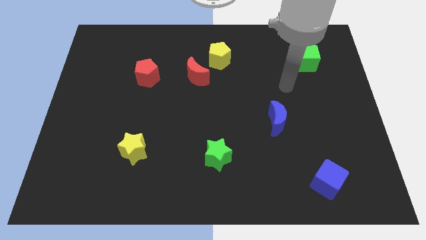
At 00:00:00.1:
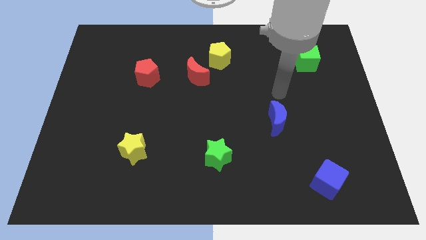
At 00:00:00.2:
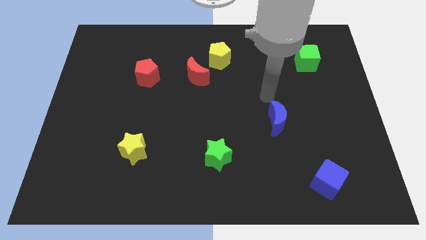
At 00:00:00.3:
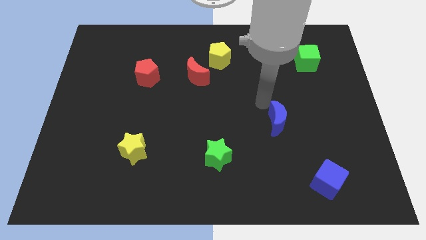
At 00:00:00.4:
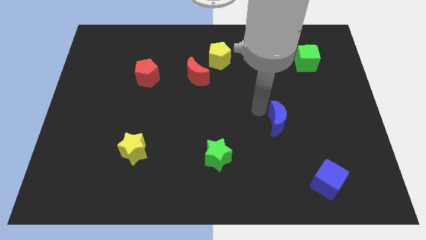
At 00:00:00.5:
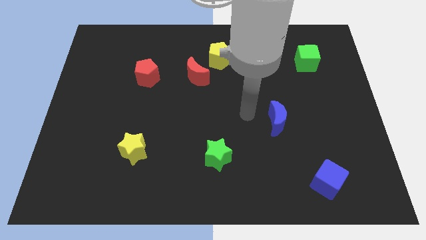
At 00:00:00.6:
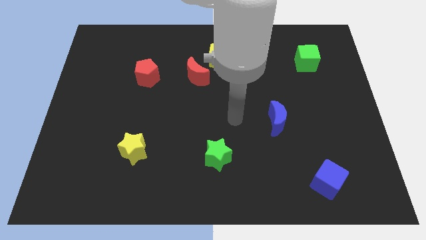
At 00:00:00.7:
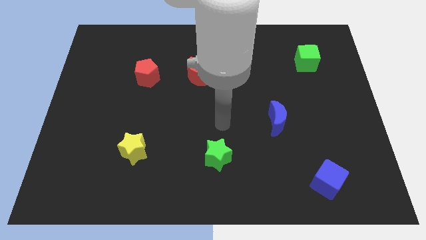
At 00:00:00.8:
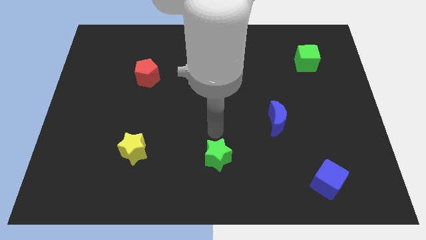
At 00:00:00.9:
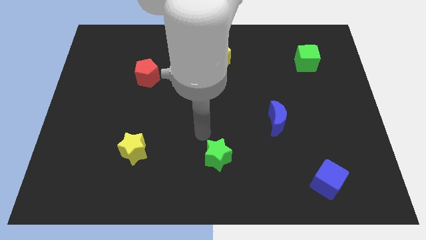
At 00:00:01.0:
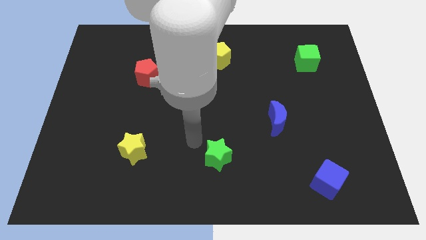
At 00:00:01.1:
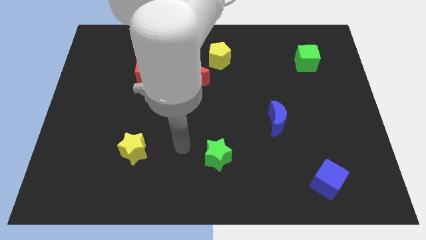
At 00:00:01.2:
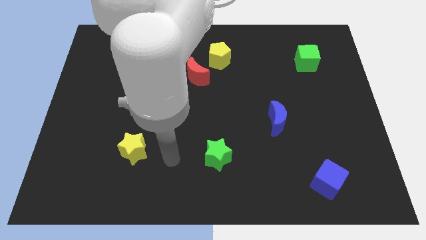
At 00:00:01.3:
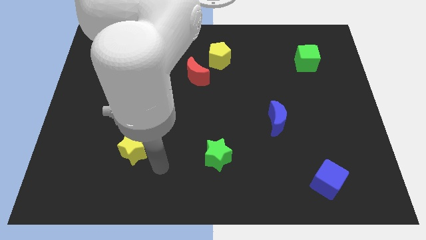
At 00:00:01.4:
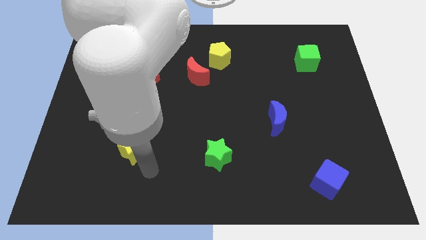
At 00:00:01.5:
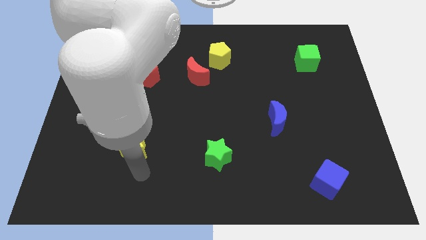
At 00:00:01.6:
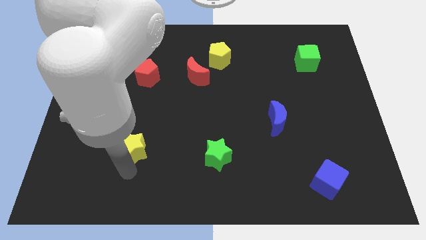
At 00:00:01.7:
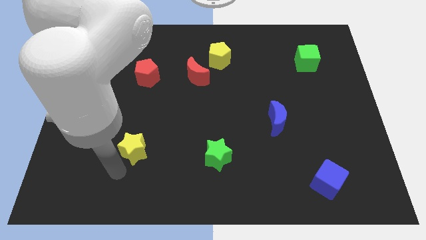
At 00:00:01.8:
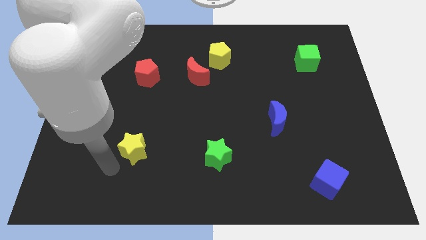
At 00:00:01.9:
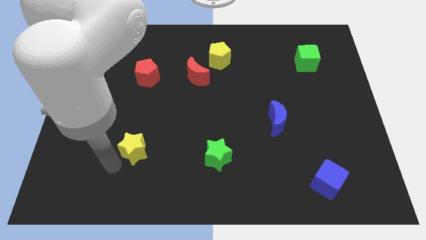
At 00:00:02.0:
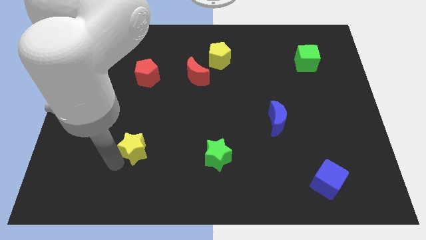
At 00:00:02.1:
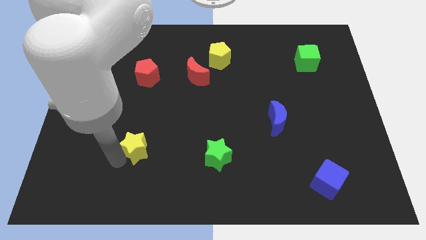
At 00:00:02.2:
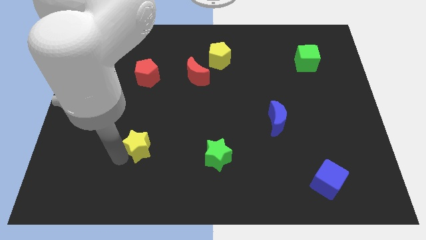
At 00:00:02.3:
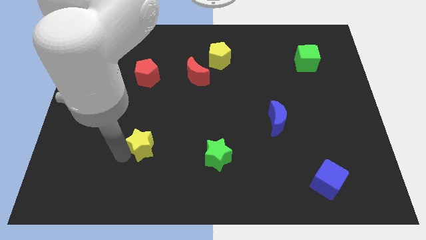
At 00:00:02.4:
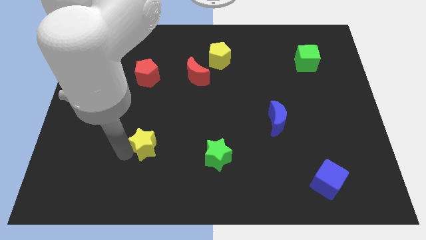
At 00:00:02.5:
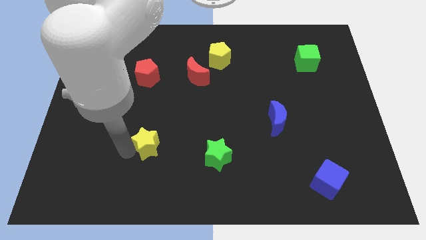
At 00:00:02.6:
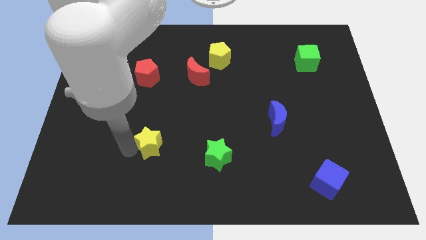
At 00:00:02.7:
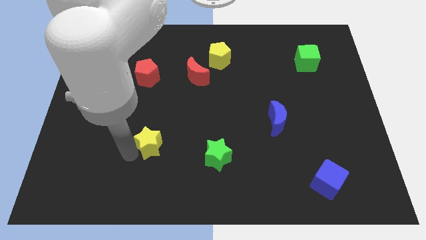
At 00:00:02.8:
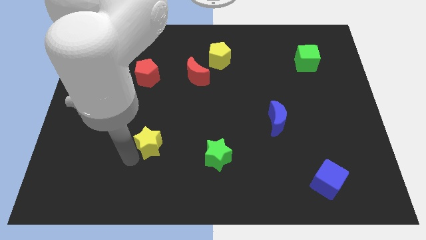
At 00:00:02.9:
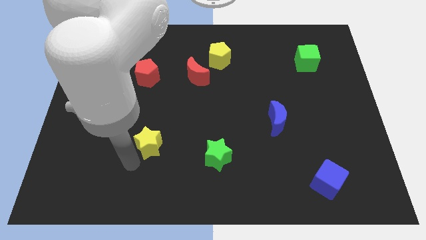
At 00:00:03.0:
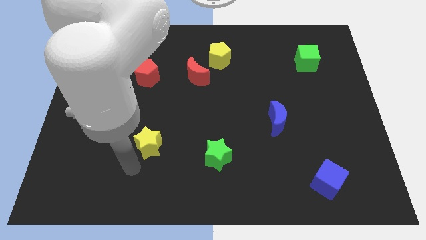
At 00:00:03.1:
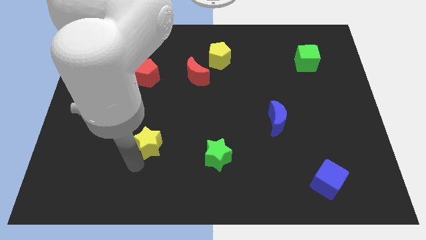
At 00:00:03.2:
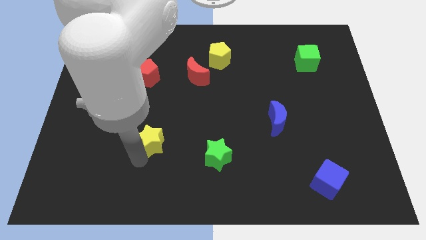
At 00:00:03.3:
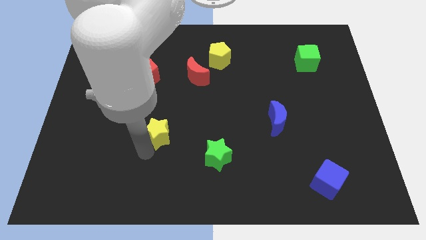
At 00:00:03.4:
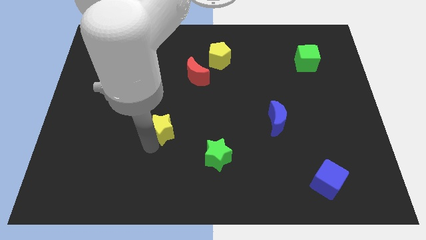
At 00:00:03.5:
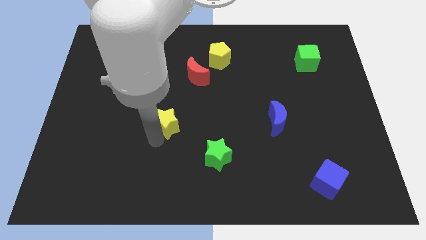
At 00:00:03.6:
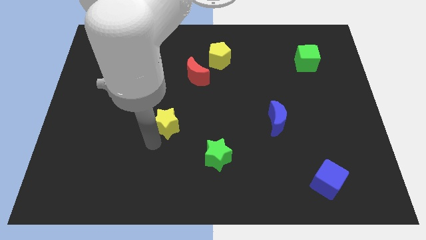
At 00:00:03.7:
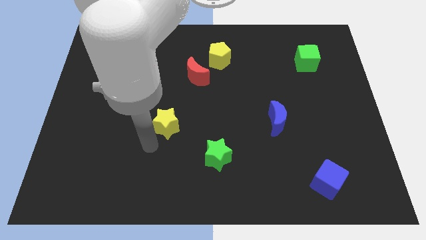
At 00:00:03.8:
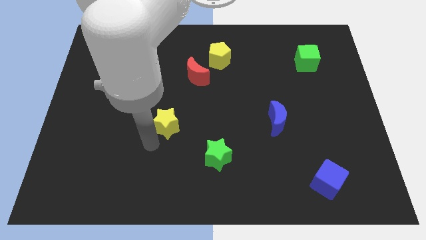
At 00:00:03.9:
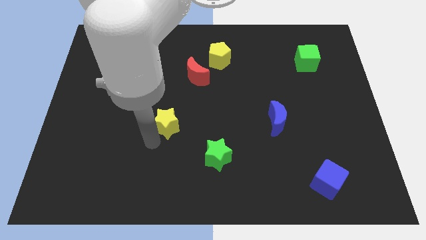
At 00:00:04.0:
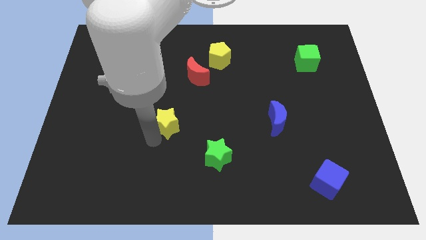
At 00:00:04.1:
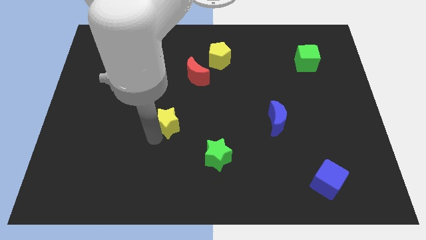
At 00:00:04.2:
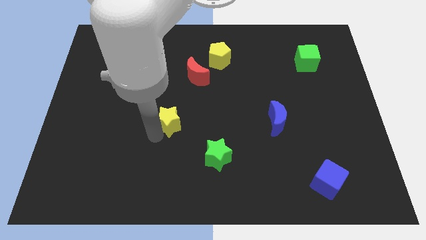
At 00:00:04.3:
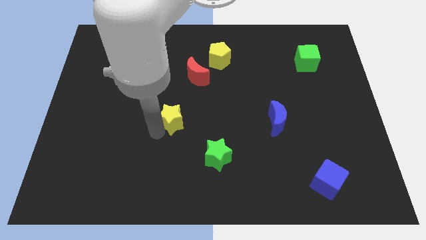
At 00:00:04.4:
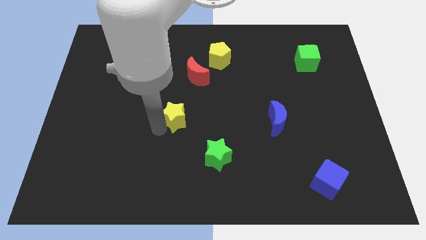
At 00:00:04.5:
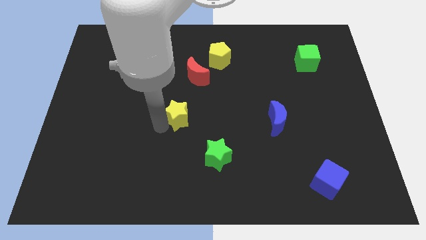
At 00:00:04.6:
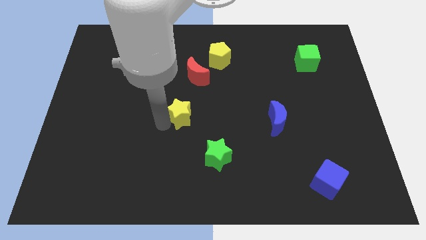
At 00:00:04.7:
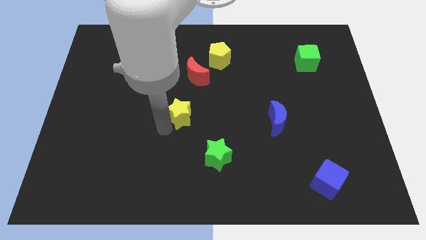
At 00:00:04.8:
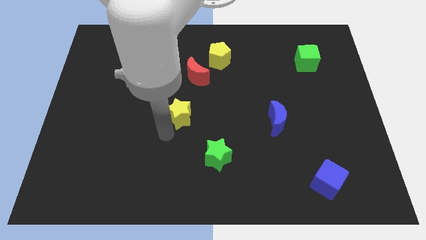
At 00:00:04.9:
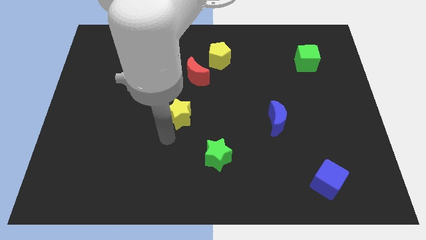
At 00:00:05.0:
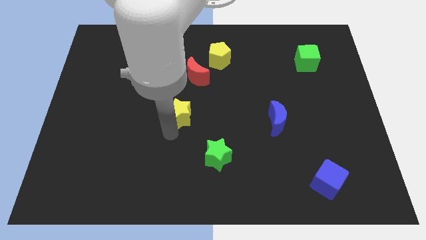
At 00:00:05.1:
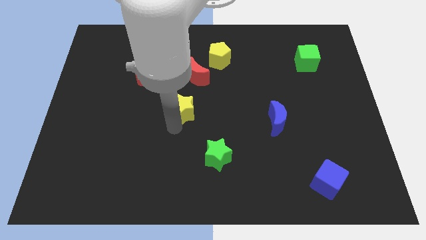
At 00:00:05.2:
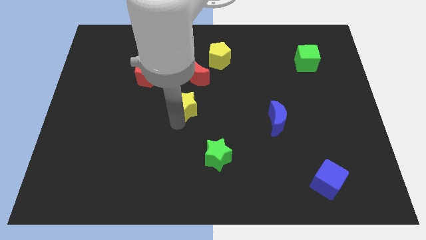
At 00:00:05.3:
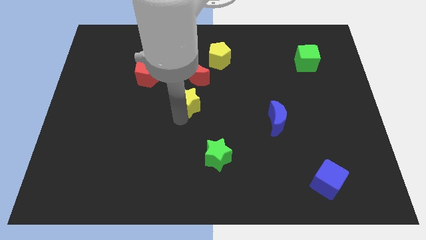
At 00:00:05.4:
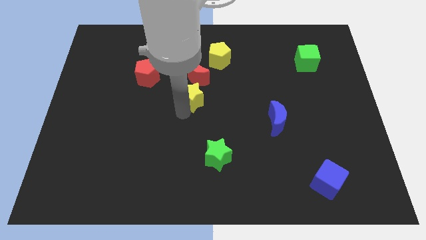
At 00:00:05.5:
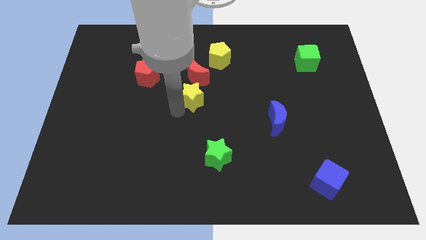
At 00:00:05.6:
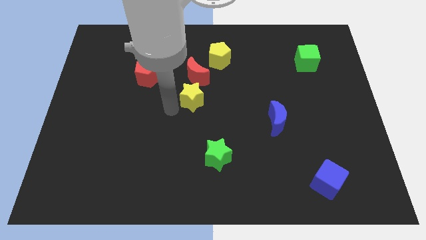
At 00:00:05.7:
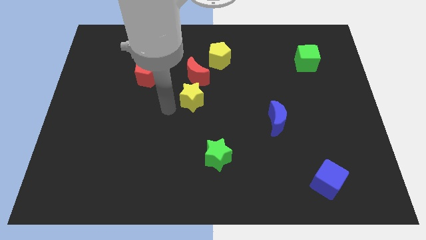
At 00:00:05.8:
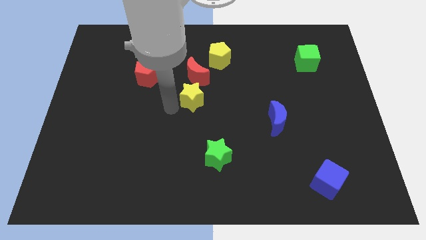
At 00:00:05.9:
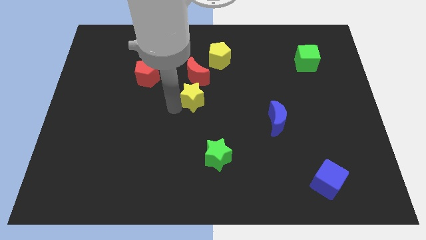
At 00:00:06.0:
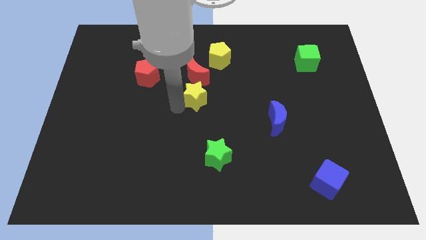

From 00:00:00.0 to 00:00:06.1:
slide the yellow star to the bottom right side of the red moon
